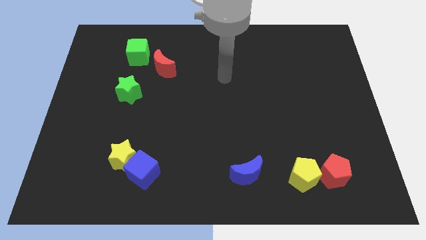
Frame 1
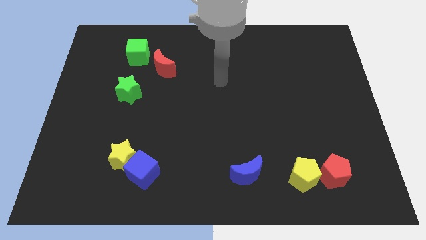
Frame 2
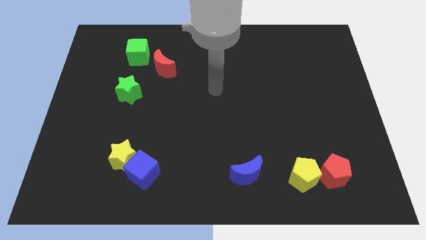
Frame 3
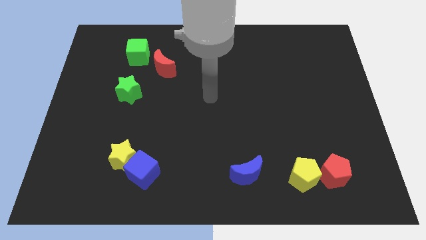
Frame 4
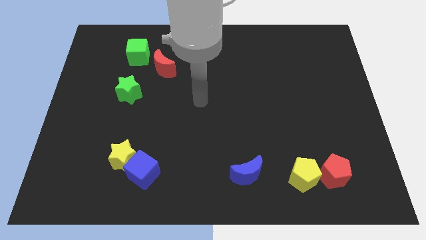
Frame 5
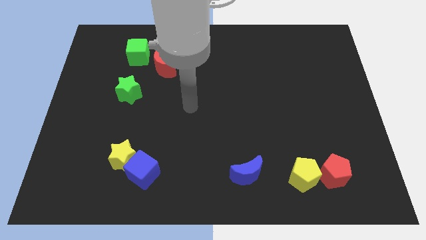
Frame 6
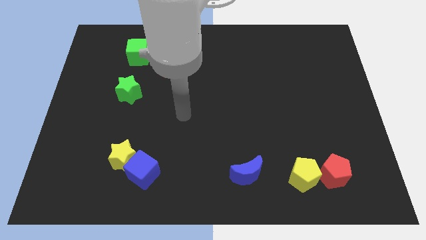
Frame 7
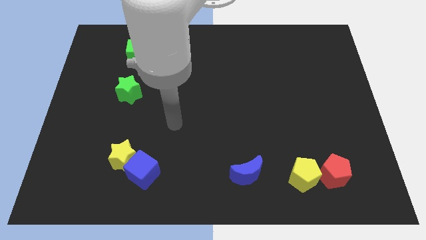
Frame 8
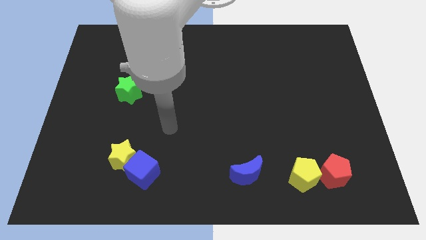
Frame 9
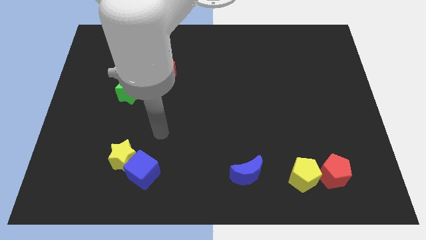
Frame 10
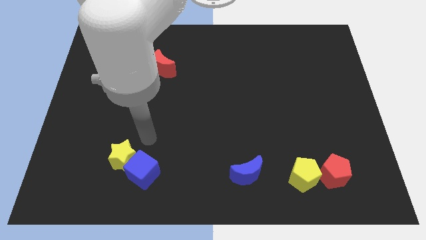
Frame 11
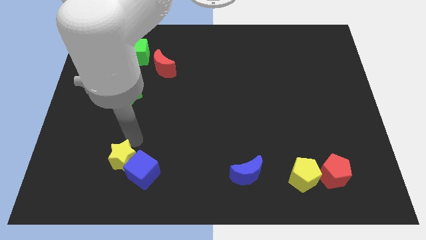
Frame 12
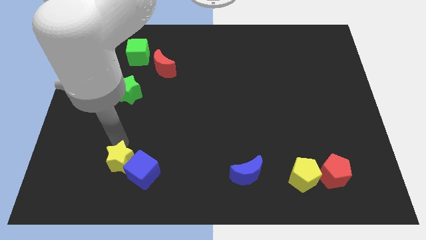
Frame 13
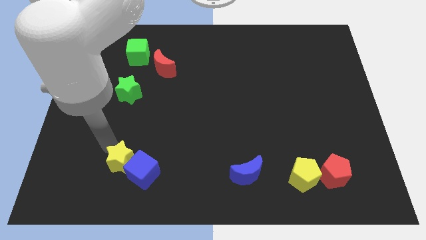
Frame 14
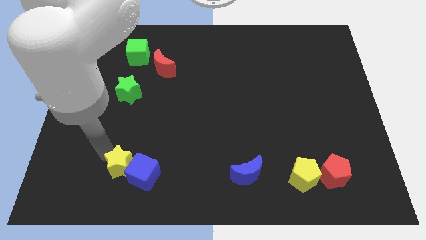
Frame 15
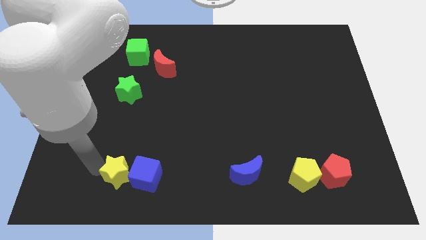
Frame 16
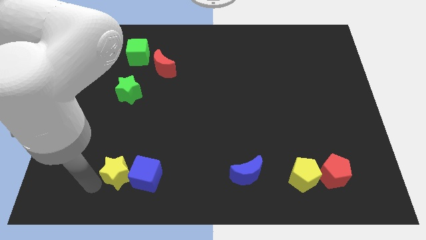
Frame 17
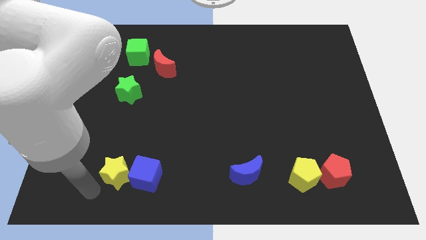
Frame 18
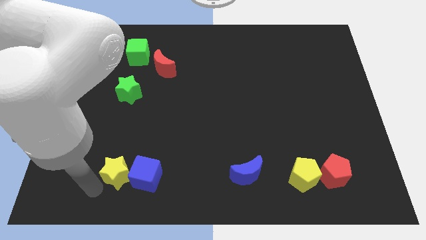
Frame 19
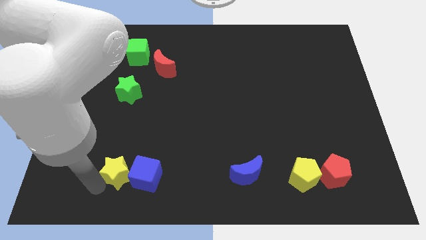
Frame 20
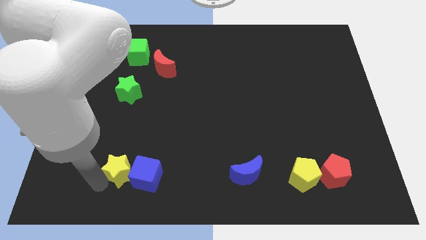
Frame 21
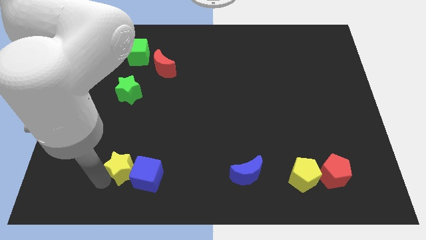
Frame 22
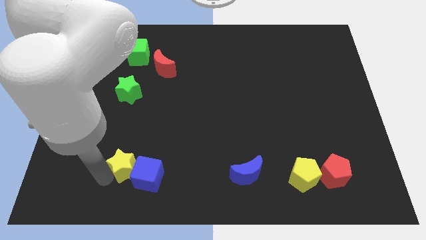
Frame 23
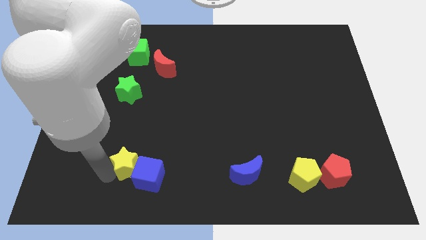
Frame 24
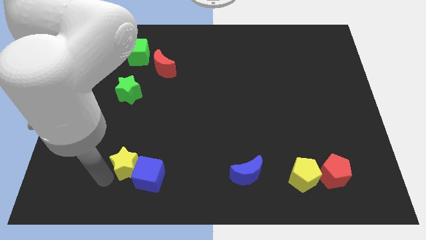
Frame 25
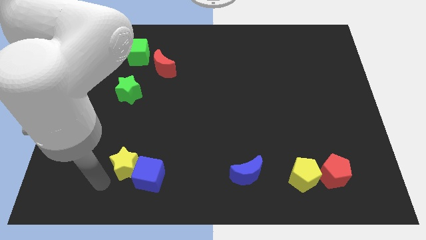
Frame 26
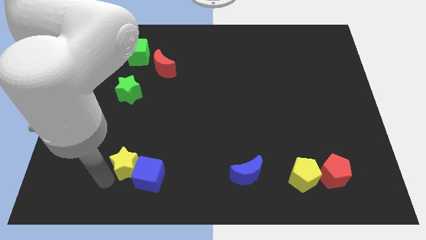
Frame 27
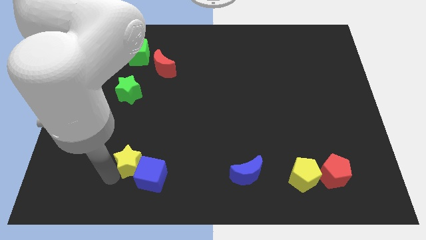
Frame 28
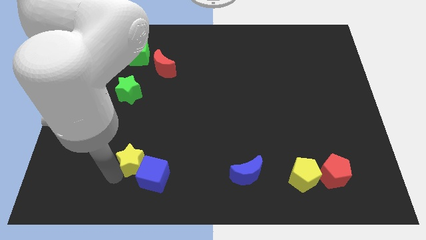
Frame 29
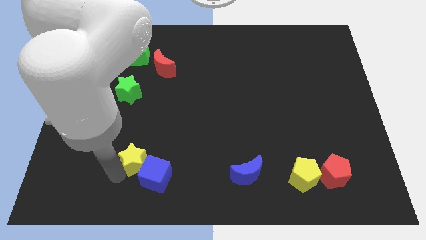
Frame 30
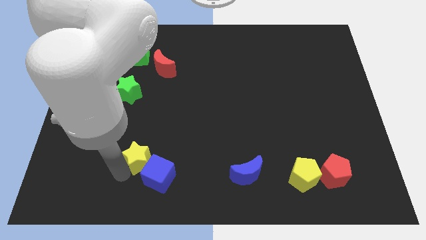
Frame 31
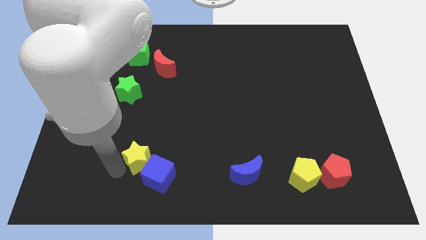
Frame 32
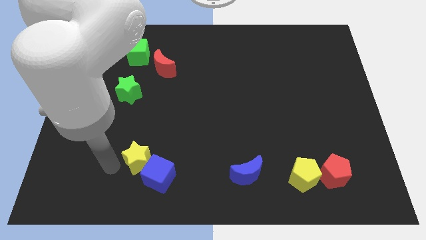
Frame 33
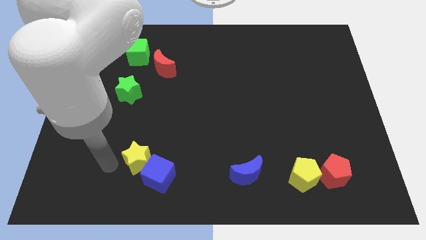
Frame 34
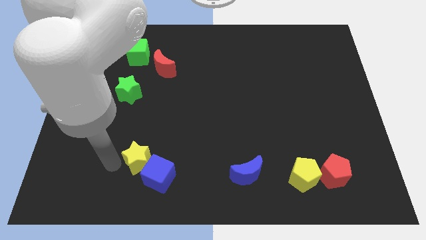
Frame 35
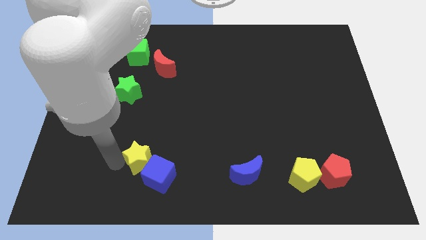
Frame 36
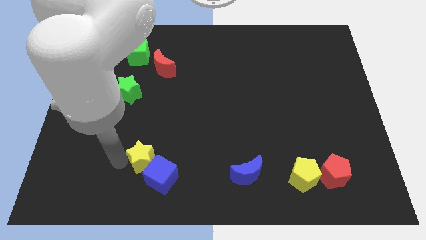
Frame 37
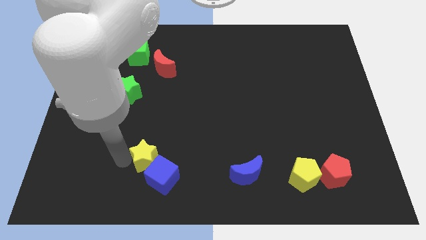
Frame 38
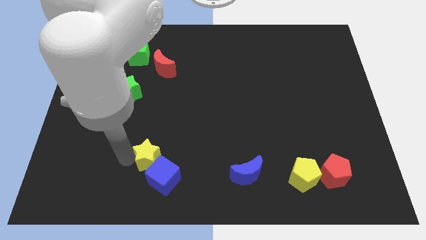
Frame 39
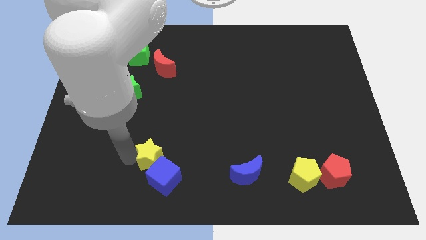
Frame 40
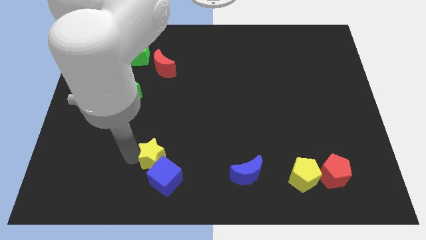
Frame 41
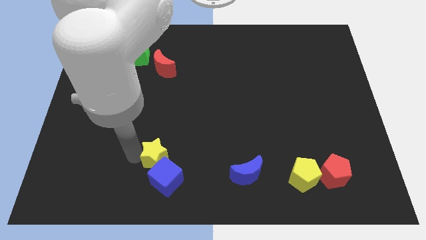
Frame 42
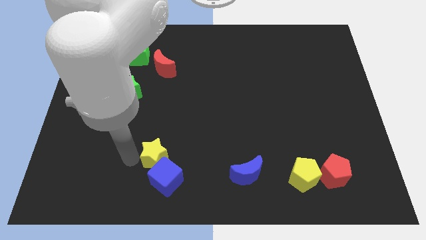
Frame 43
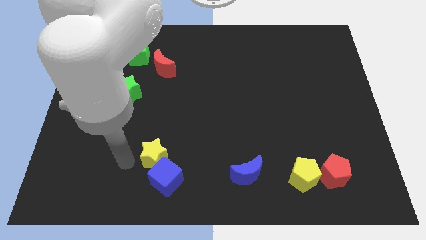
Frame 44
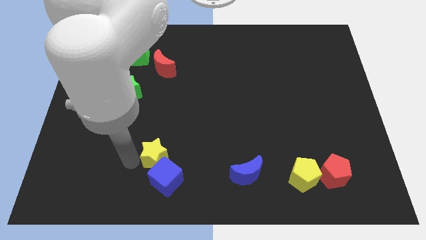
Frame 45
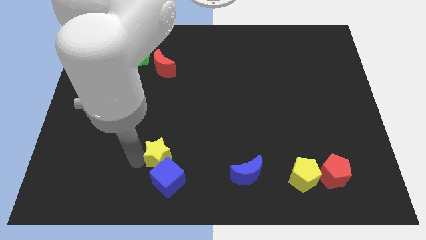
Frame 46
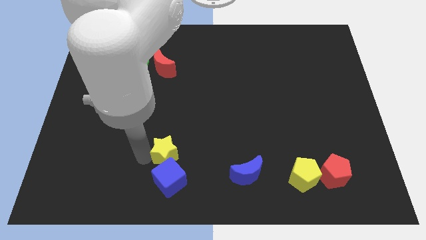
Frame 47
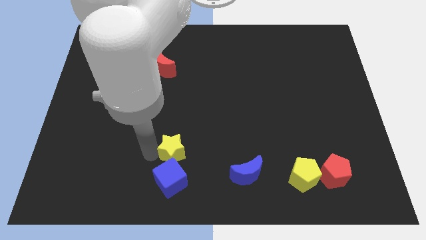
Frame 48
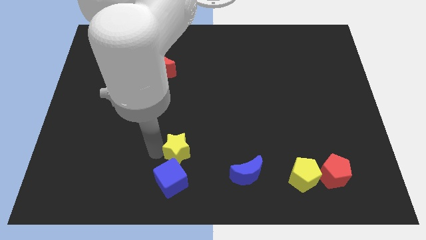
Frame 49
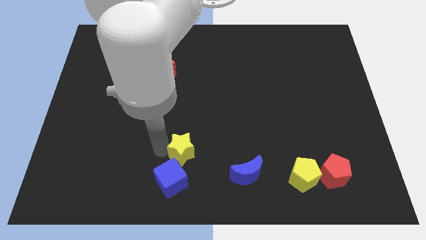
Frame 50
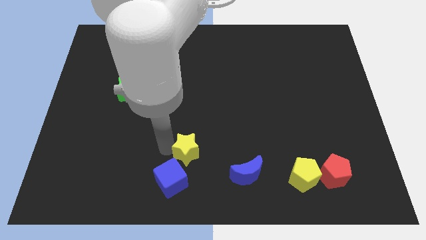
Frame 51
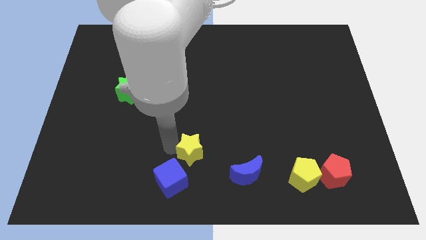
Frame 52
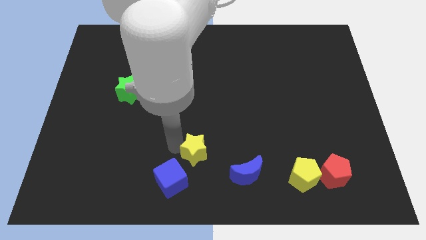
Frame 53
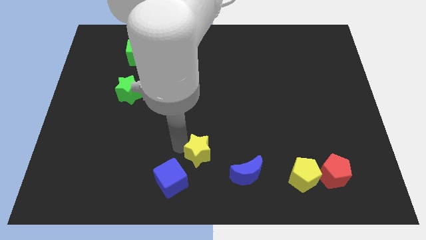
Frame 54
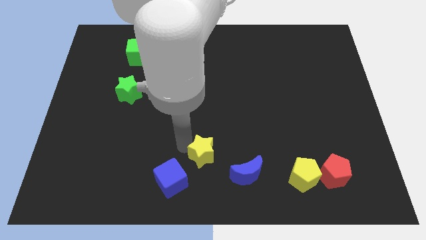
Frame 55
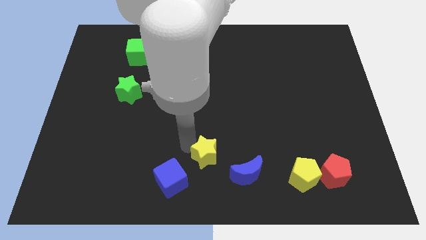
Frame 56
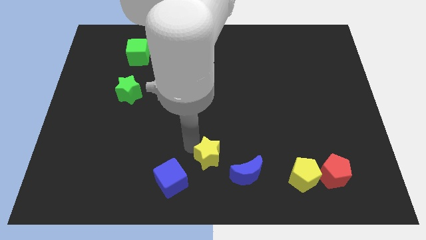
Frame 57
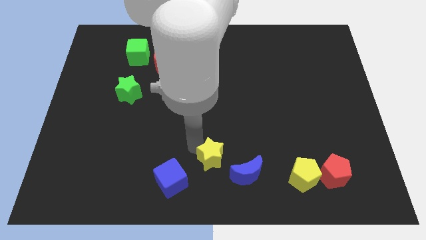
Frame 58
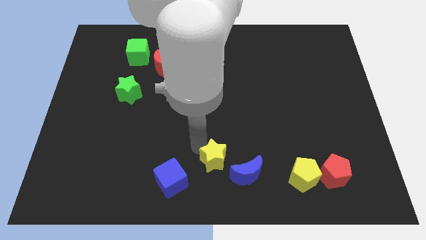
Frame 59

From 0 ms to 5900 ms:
slide the yellow star right of the blue cube

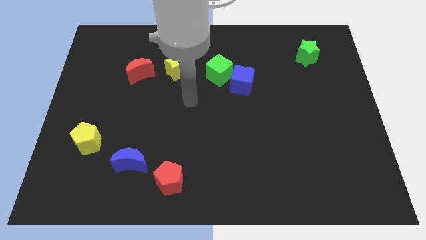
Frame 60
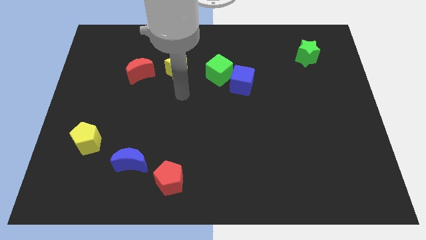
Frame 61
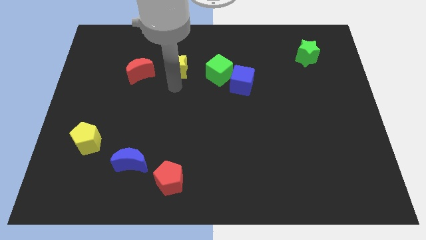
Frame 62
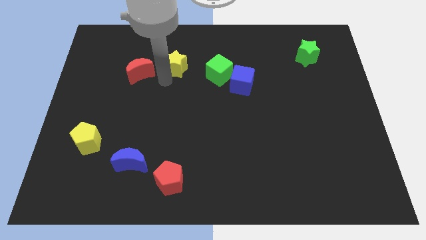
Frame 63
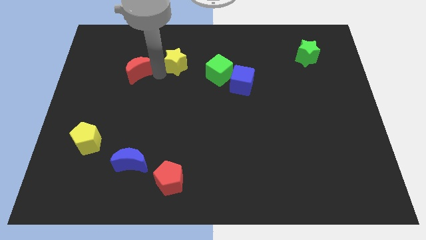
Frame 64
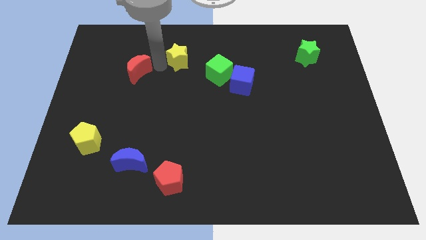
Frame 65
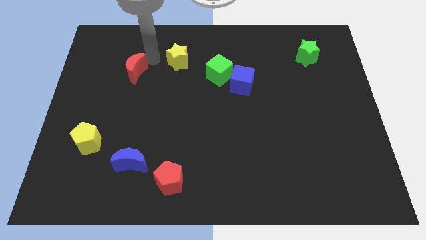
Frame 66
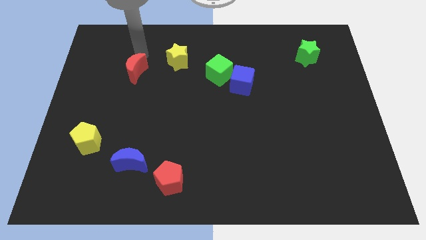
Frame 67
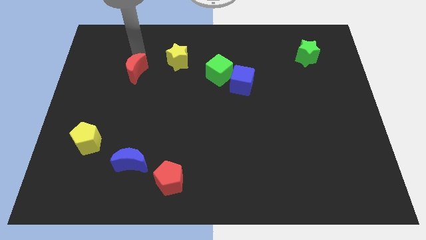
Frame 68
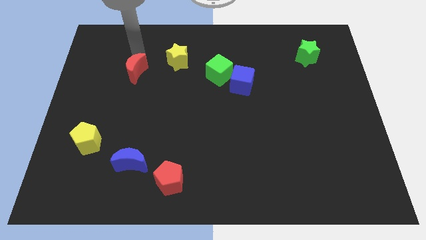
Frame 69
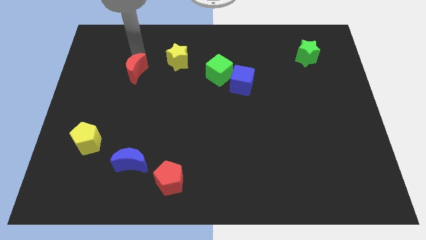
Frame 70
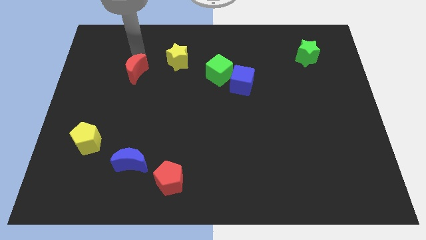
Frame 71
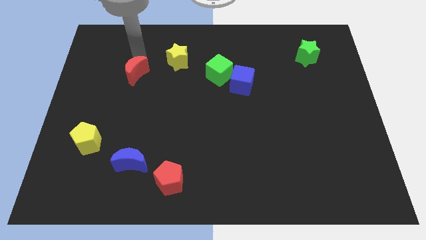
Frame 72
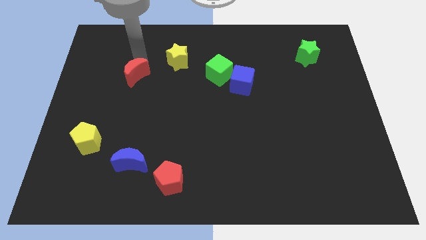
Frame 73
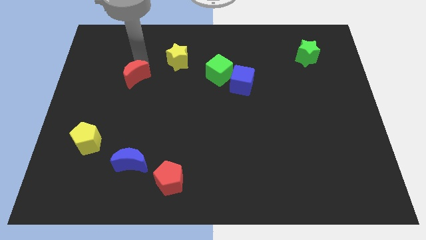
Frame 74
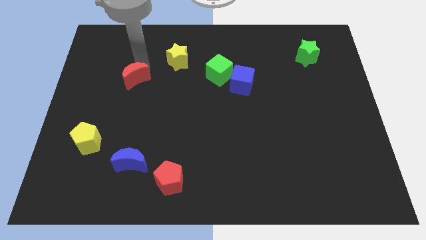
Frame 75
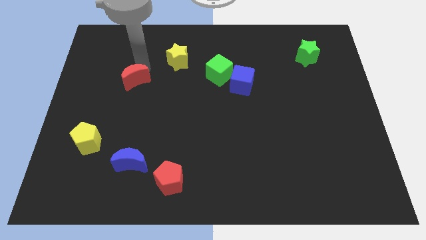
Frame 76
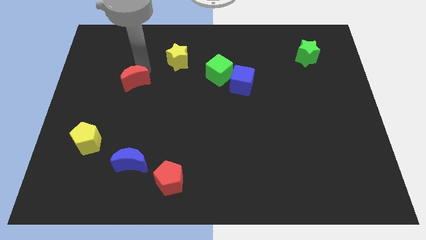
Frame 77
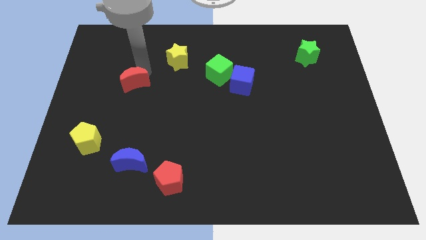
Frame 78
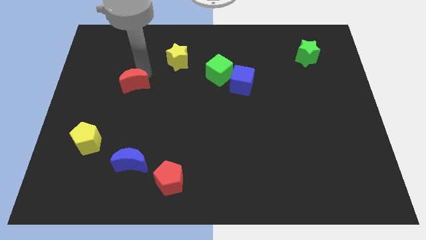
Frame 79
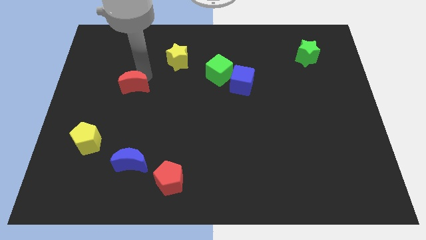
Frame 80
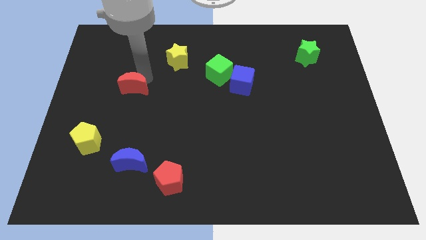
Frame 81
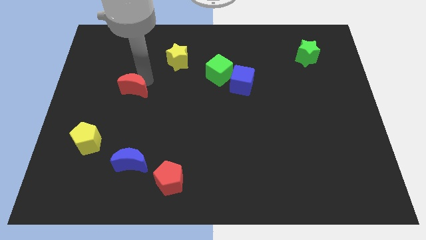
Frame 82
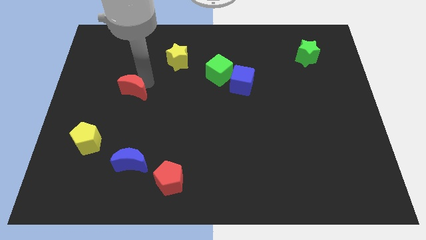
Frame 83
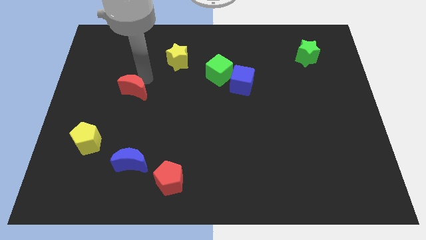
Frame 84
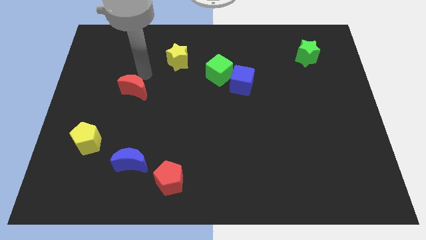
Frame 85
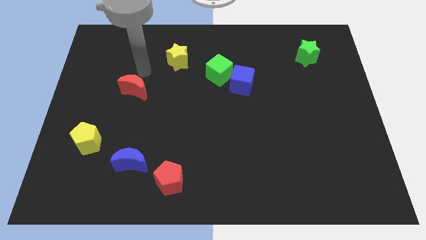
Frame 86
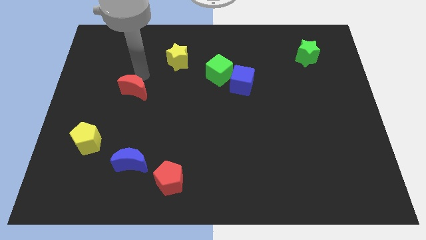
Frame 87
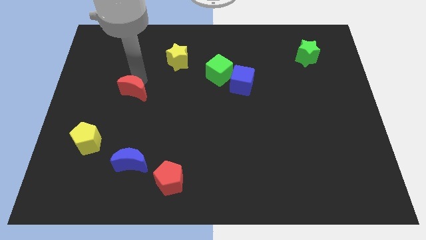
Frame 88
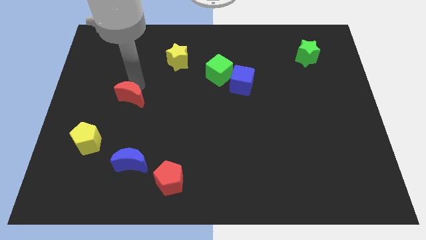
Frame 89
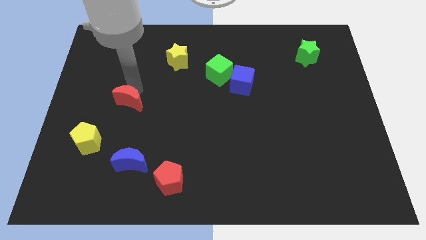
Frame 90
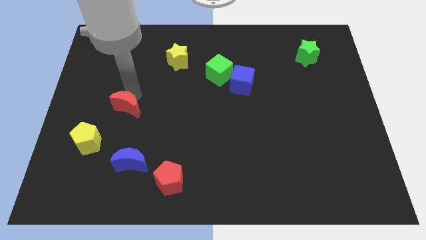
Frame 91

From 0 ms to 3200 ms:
push the red moon diagonally up and to the right of the yellow pentagon
